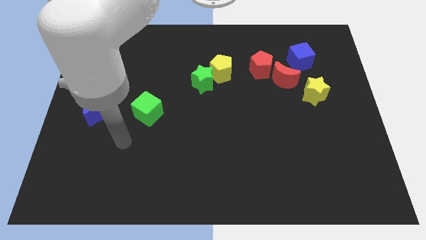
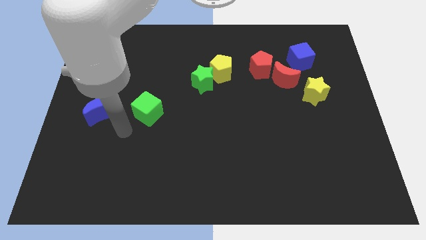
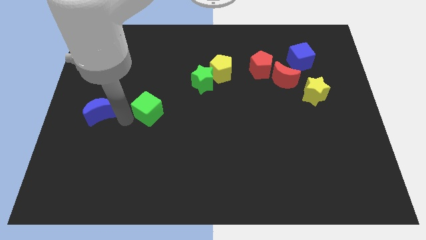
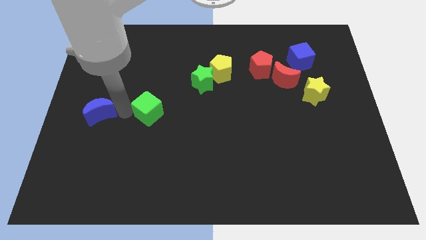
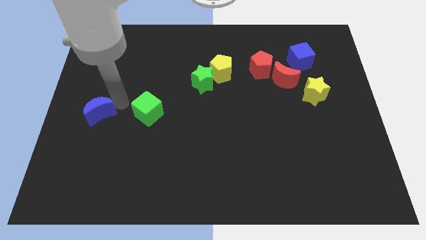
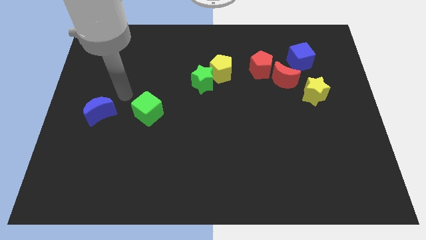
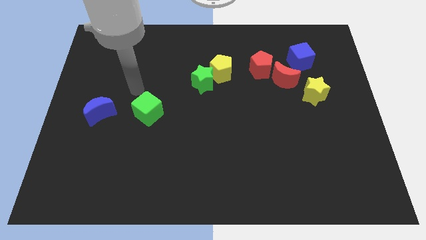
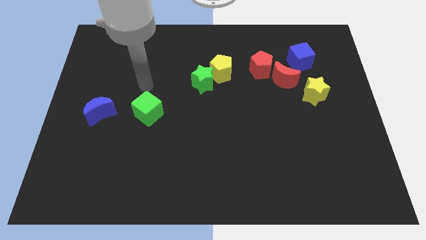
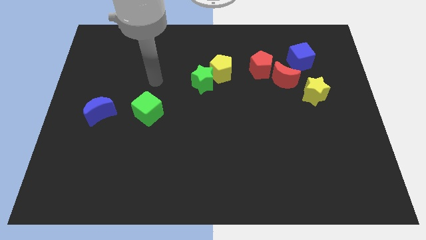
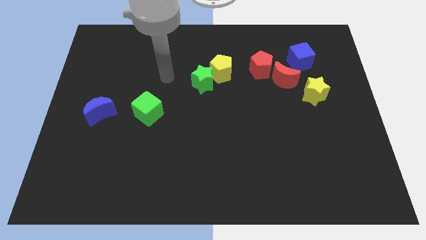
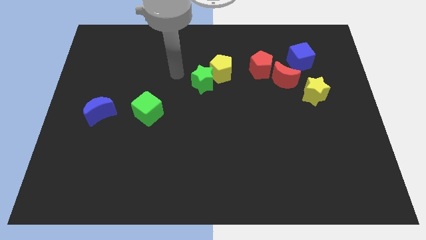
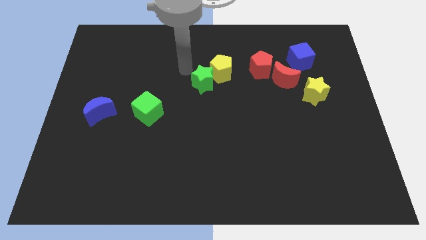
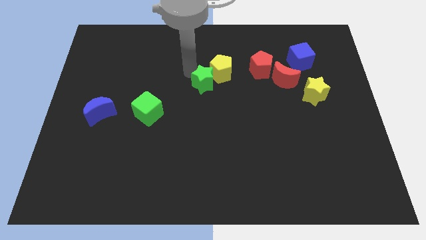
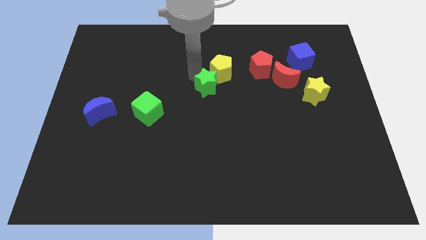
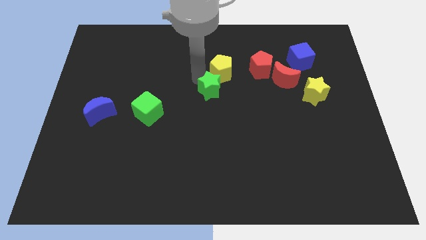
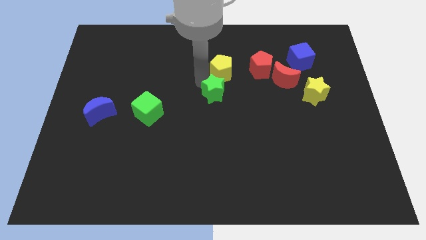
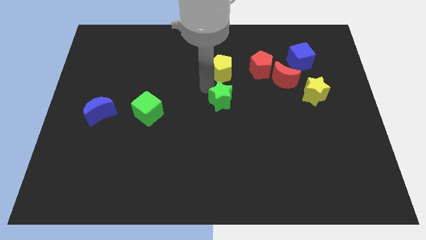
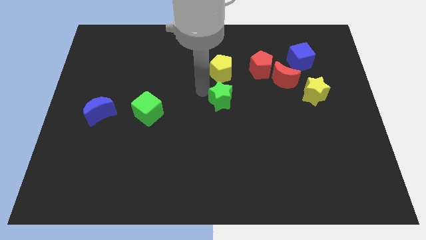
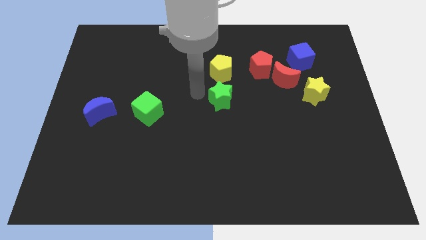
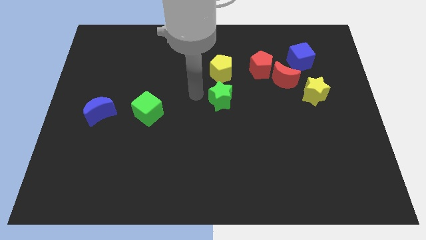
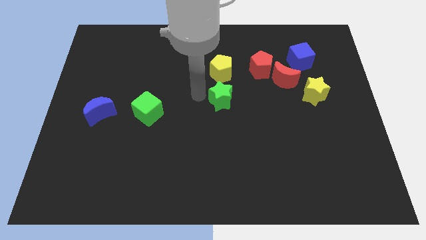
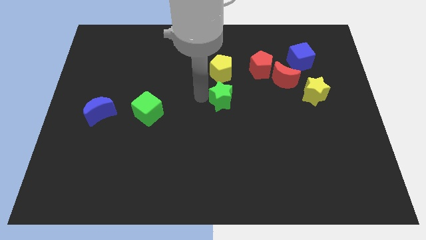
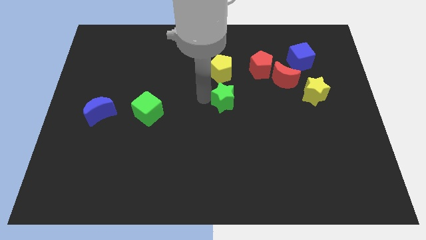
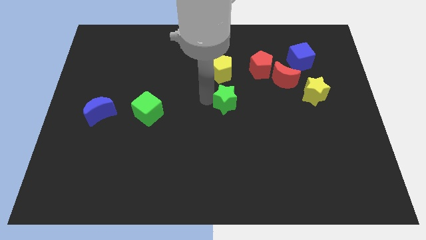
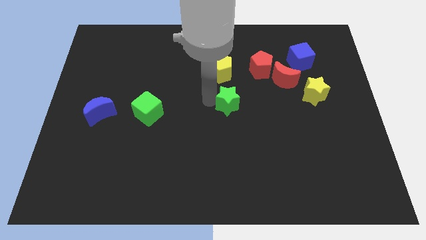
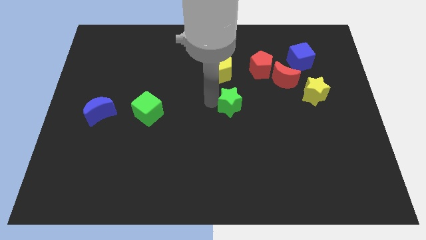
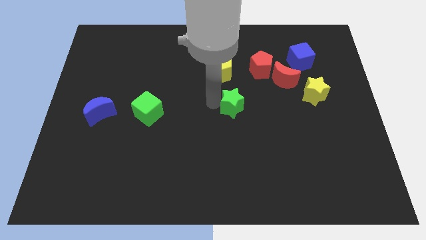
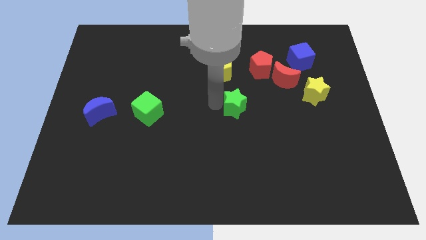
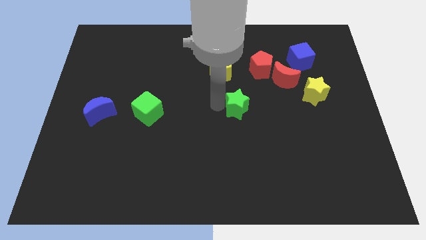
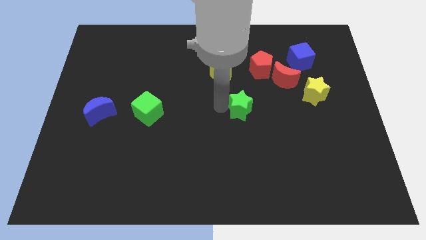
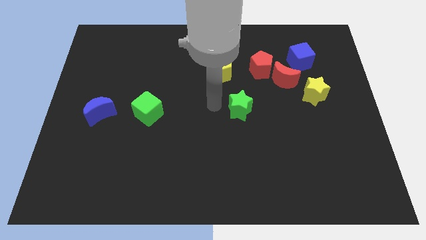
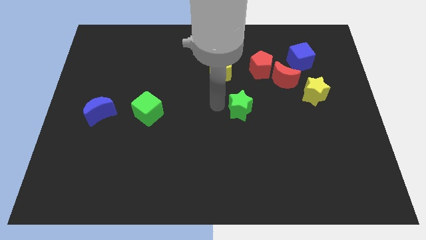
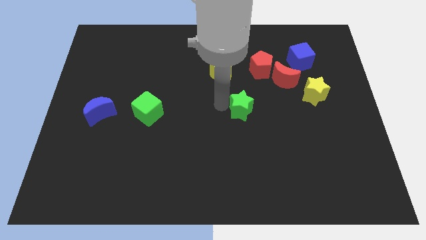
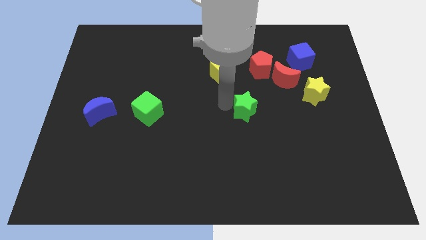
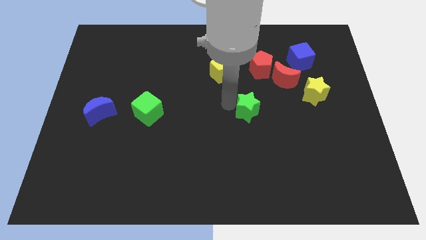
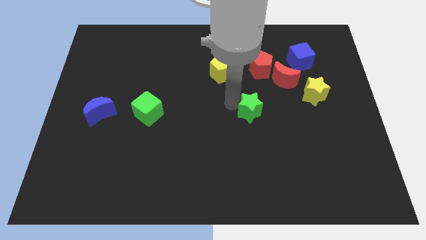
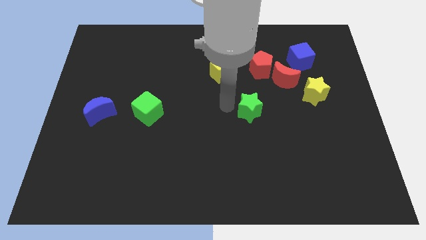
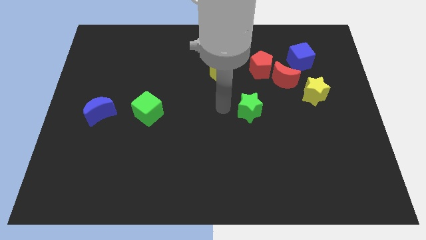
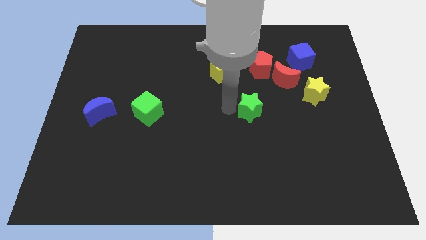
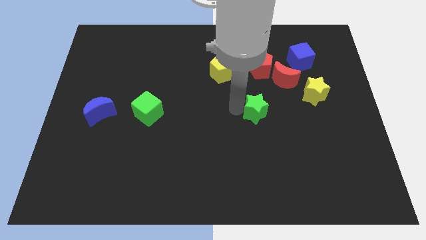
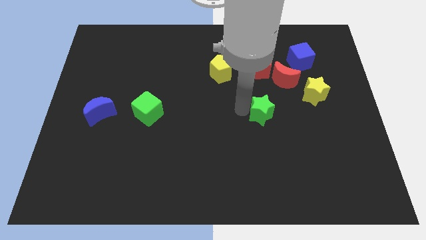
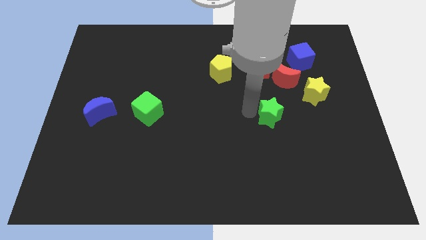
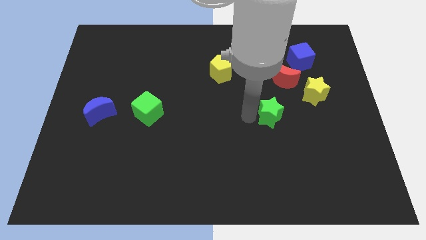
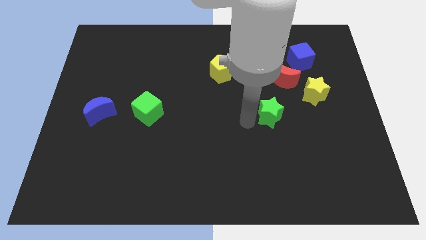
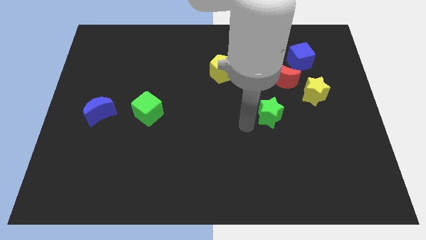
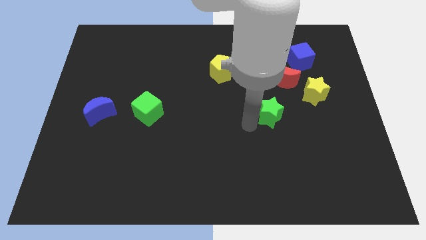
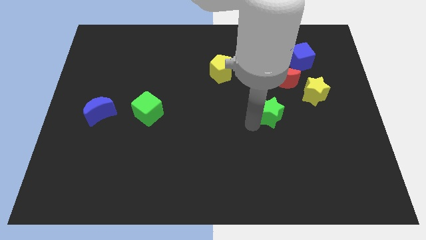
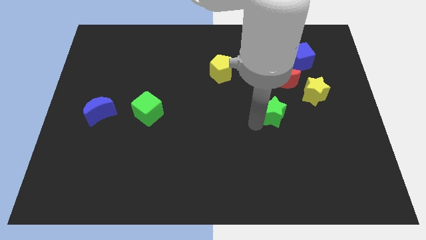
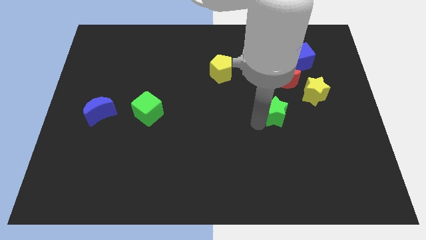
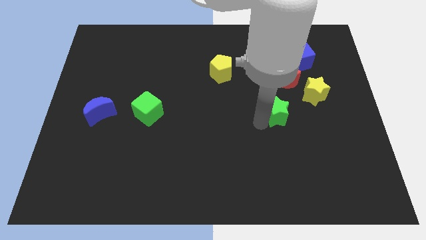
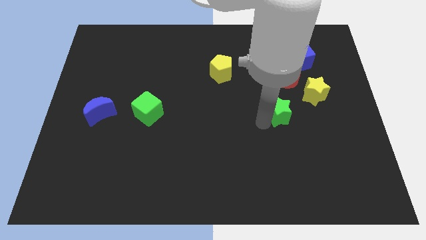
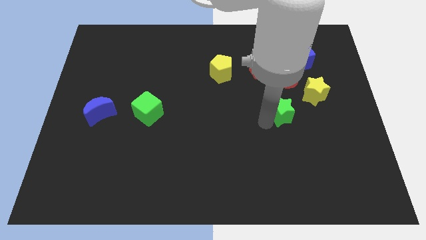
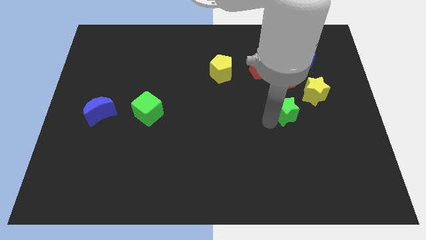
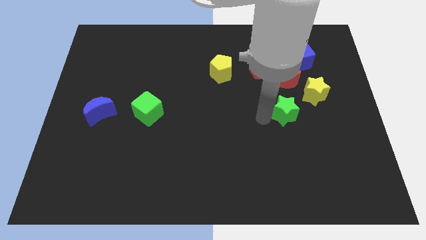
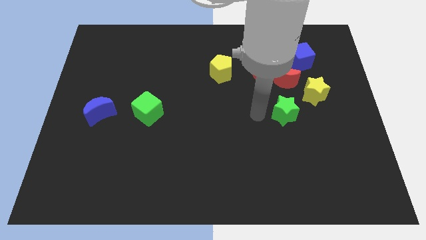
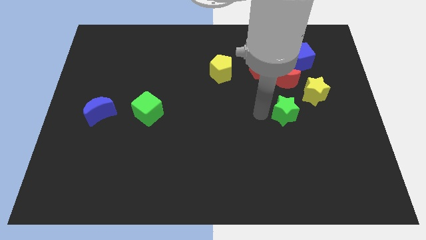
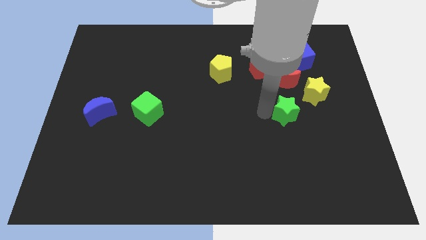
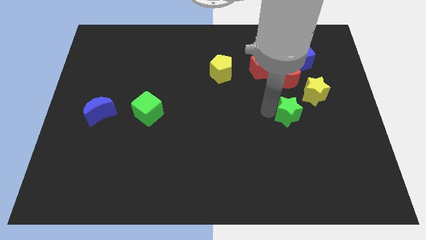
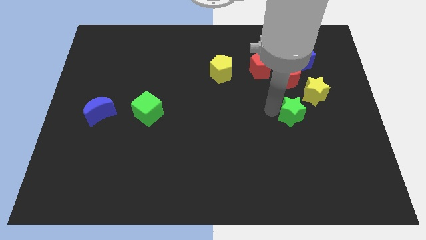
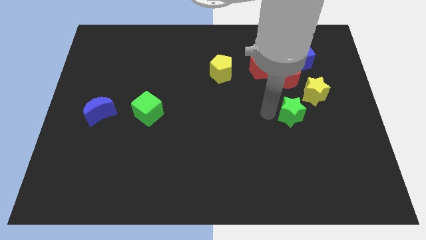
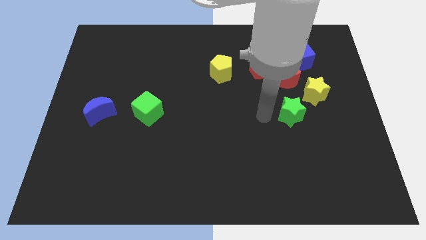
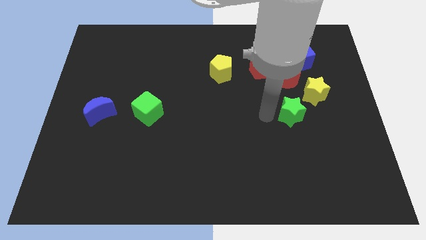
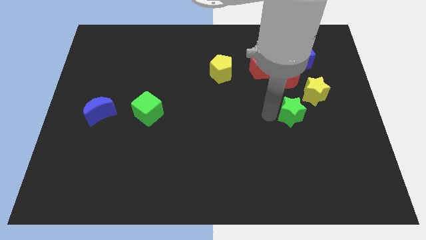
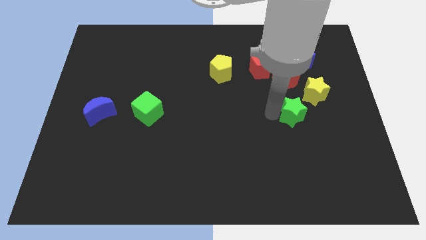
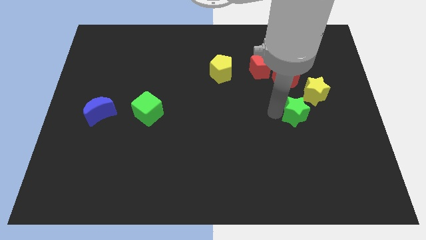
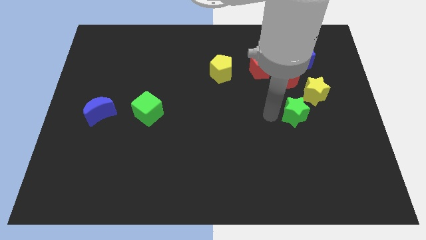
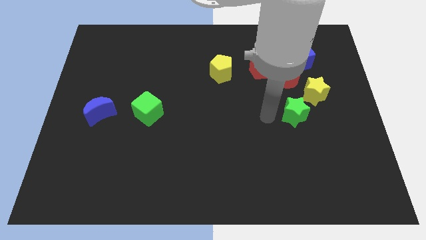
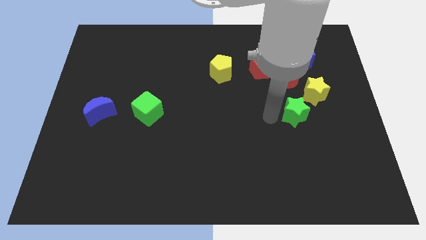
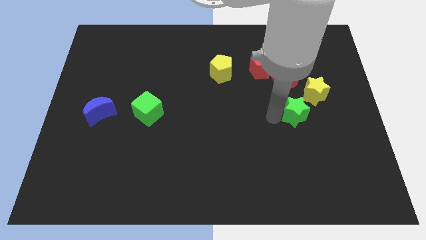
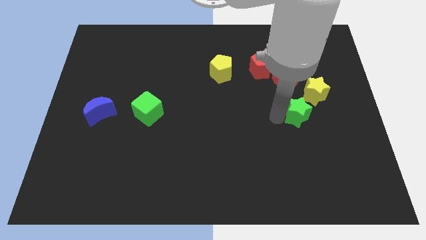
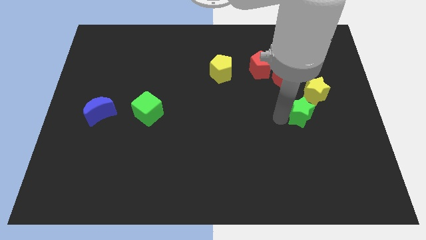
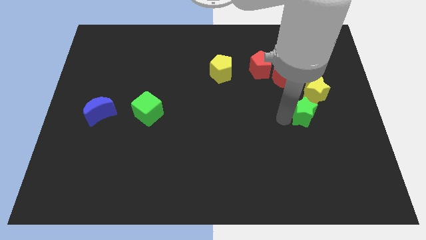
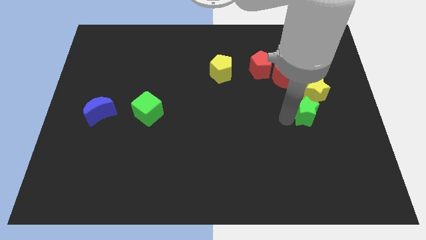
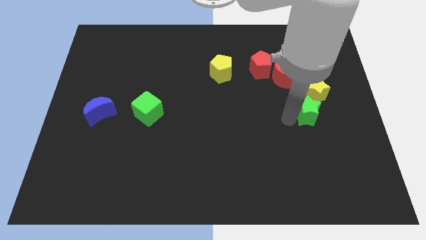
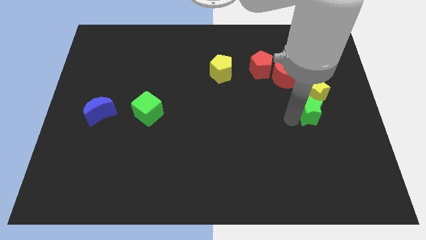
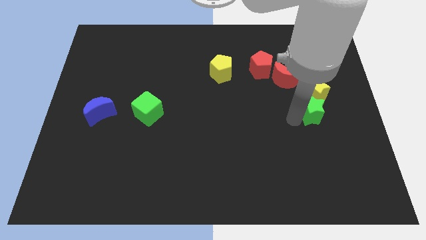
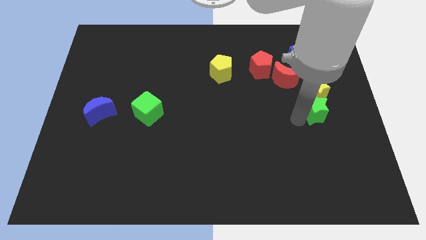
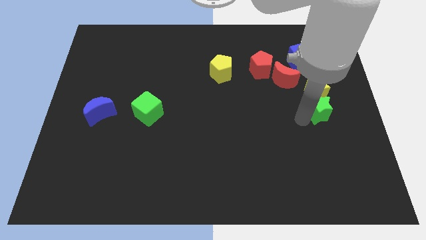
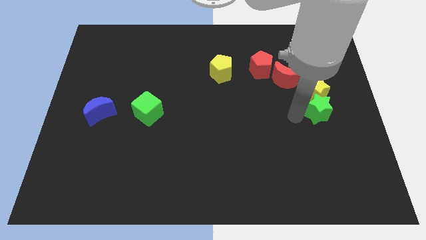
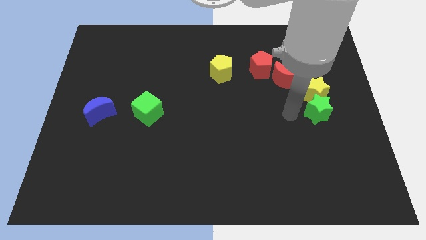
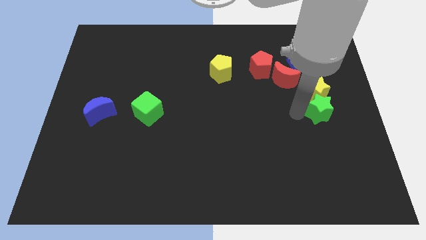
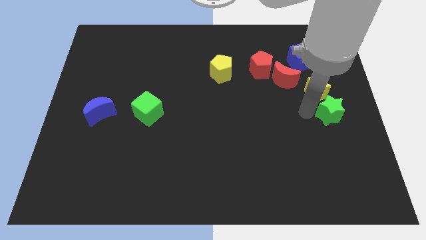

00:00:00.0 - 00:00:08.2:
push the green star to the right side of the board
